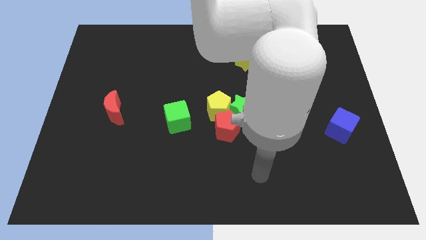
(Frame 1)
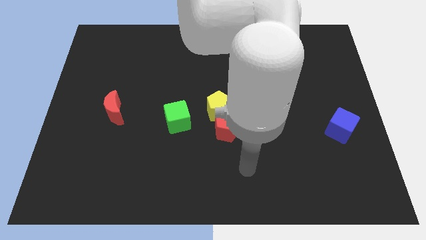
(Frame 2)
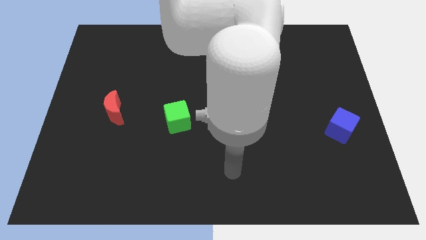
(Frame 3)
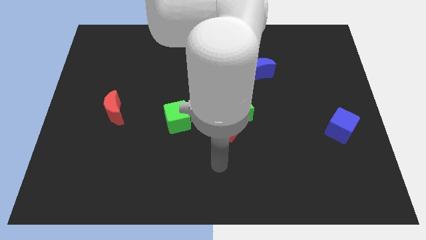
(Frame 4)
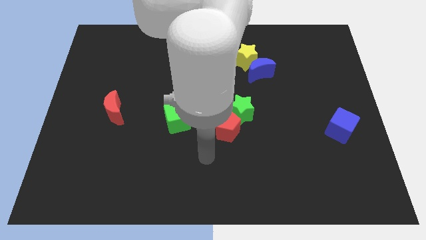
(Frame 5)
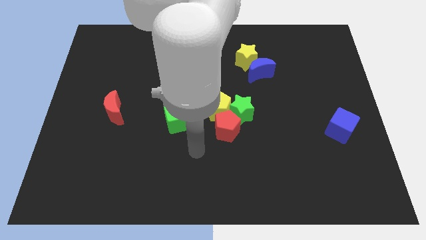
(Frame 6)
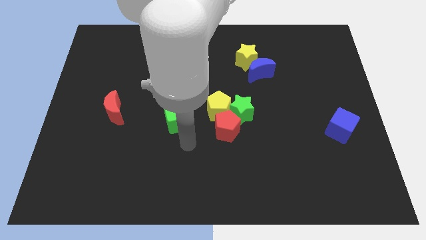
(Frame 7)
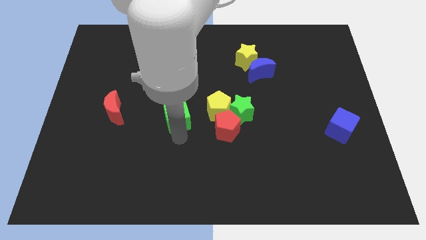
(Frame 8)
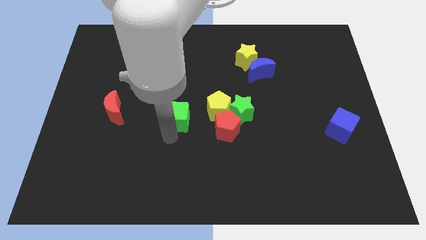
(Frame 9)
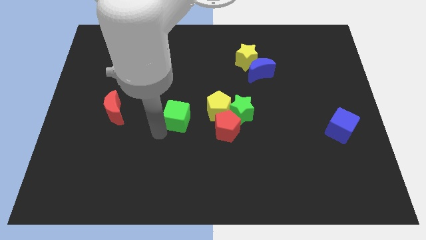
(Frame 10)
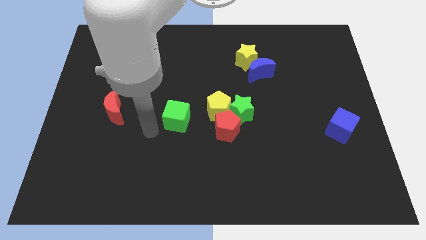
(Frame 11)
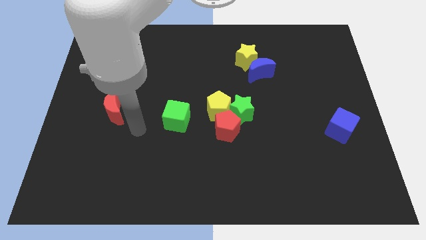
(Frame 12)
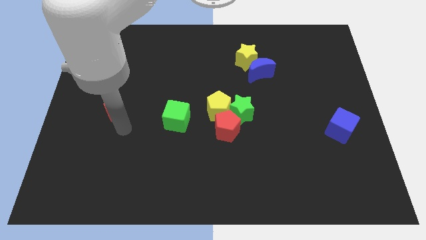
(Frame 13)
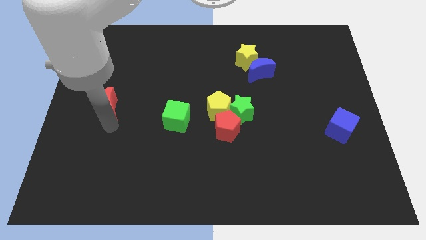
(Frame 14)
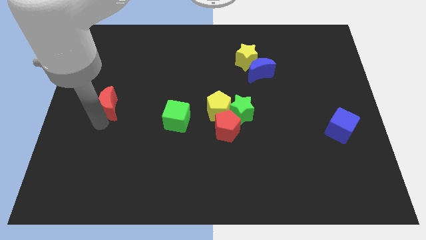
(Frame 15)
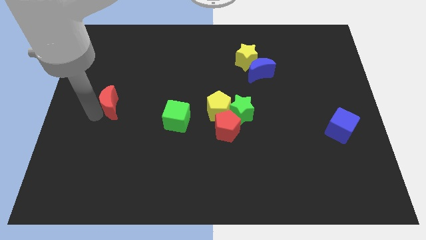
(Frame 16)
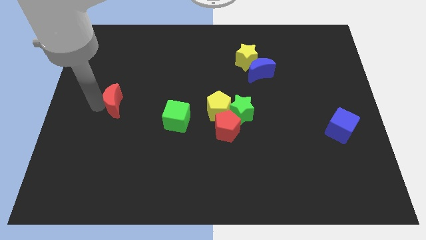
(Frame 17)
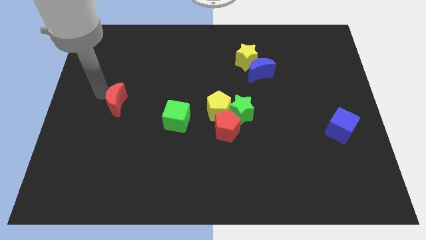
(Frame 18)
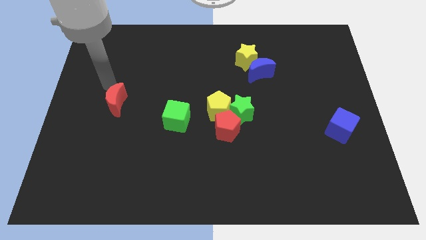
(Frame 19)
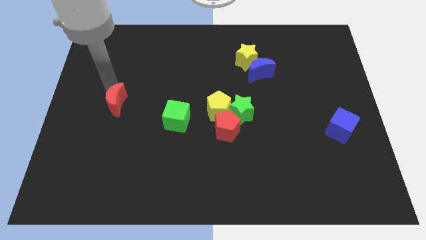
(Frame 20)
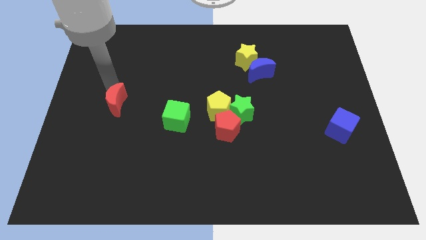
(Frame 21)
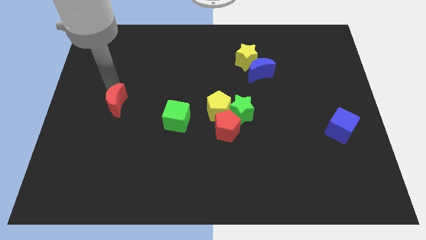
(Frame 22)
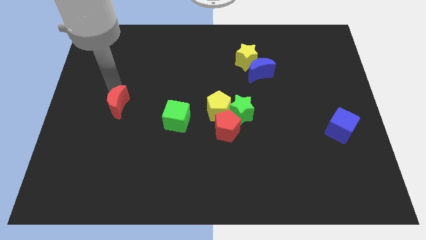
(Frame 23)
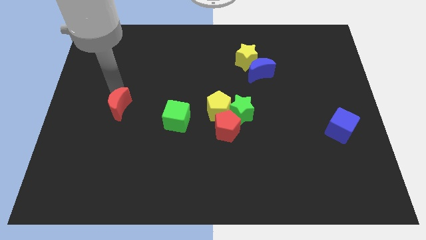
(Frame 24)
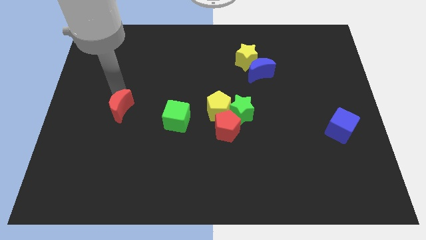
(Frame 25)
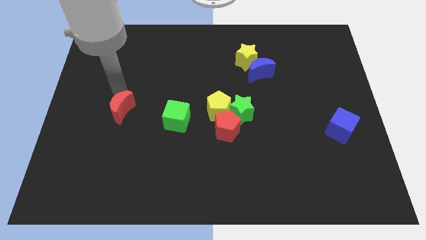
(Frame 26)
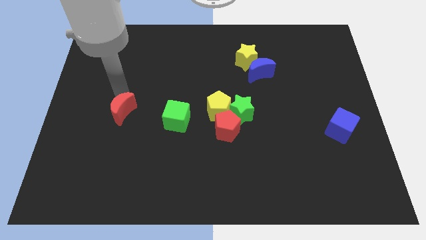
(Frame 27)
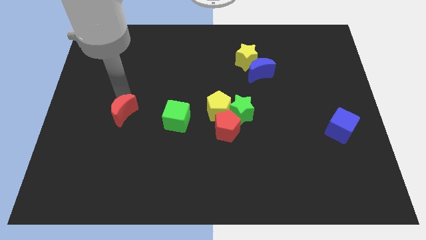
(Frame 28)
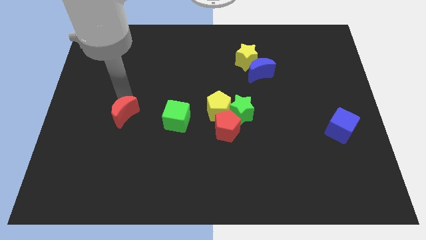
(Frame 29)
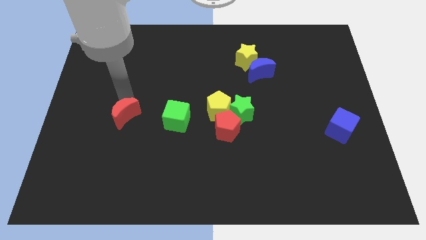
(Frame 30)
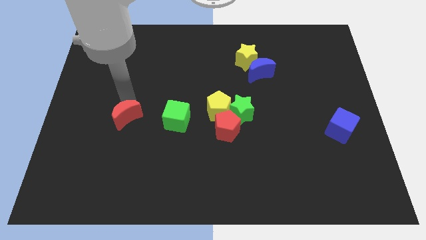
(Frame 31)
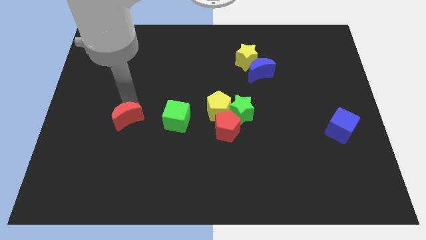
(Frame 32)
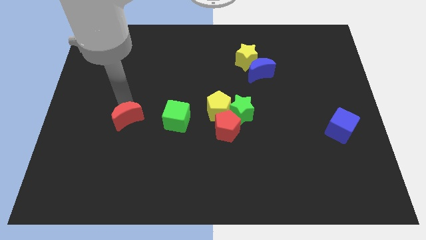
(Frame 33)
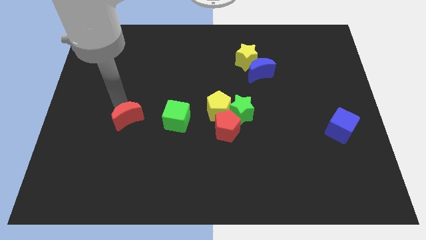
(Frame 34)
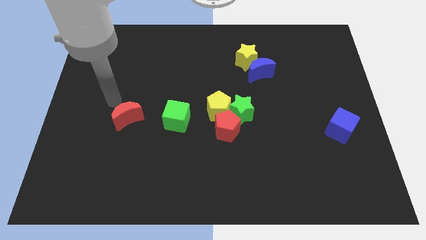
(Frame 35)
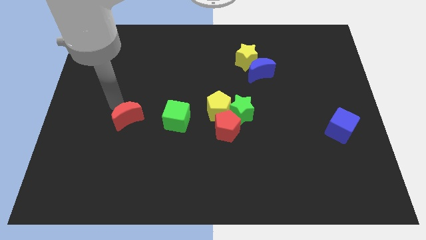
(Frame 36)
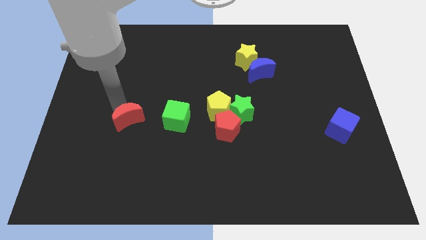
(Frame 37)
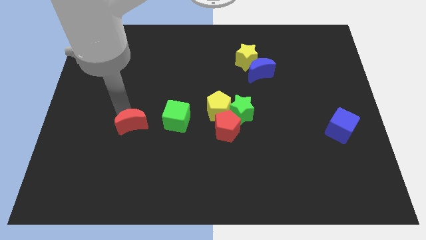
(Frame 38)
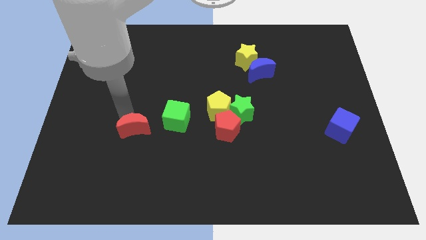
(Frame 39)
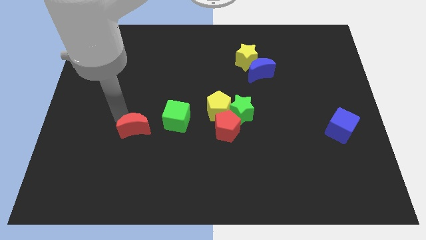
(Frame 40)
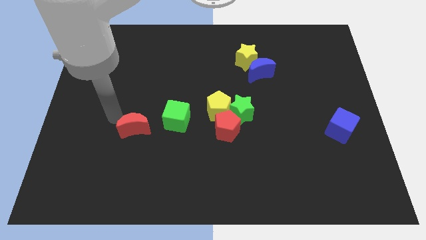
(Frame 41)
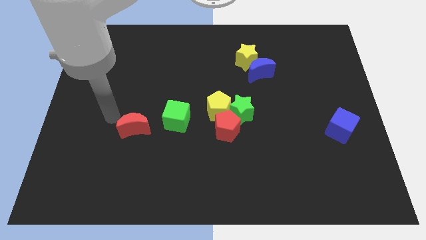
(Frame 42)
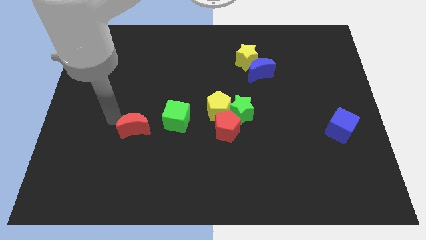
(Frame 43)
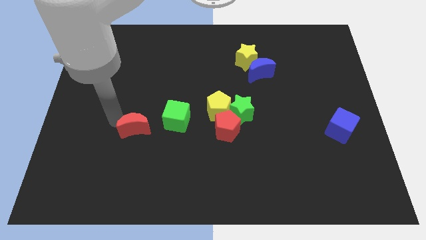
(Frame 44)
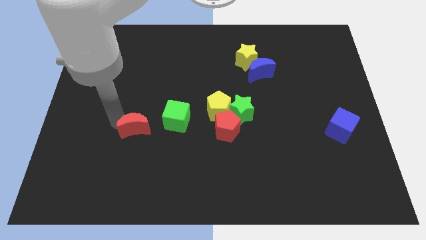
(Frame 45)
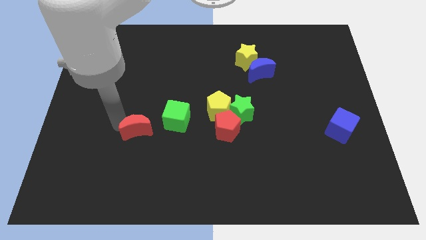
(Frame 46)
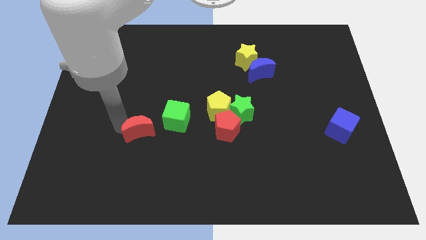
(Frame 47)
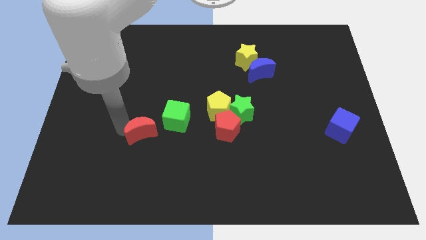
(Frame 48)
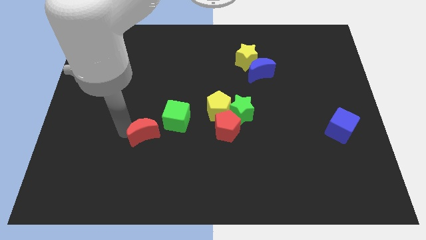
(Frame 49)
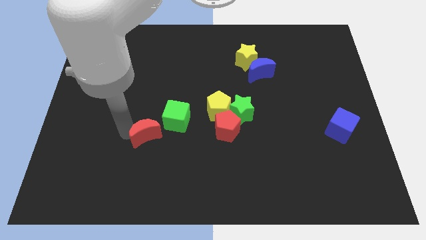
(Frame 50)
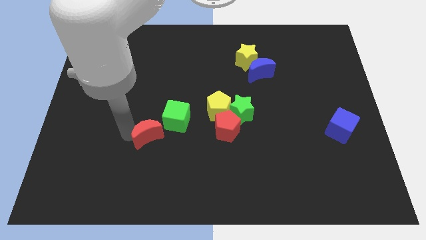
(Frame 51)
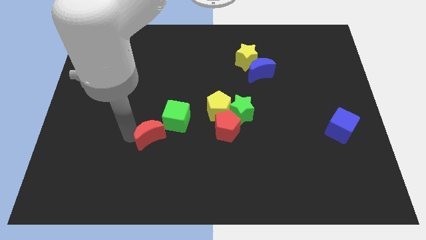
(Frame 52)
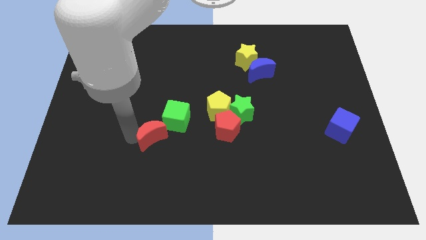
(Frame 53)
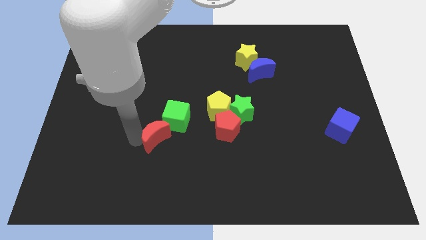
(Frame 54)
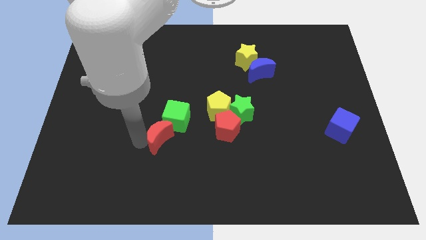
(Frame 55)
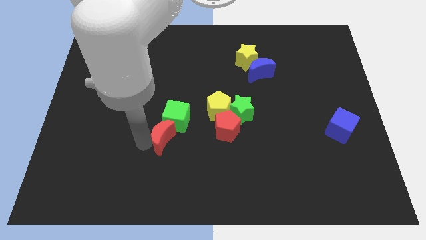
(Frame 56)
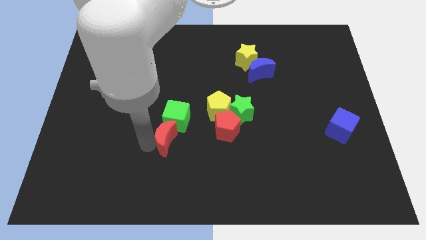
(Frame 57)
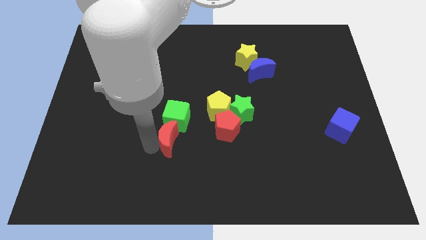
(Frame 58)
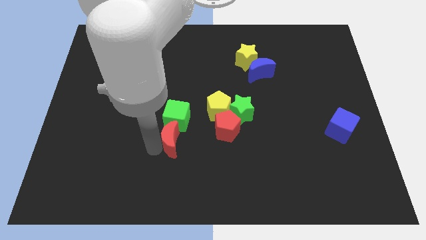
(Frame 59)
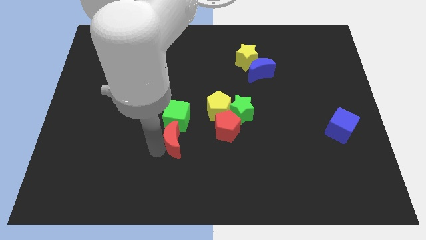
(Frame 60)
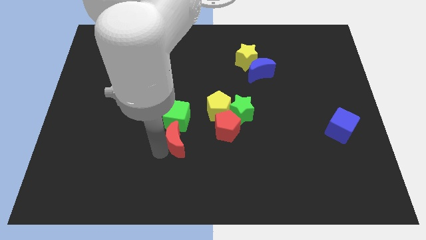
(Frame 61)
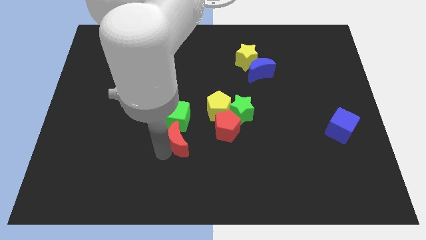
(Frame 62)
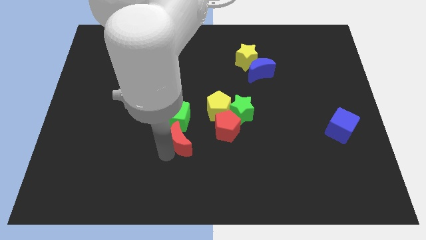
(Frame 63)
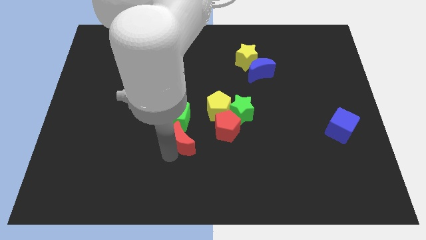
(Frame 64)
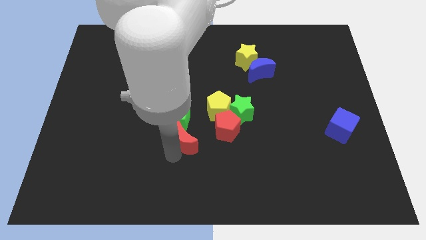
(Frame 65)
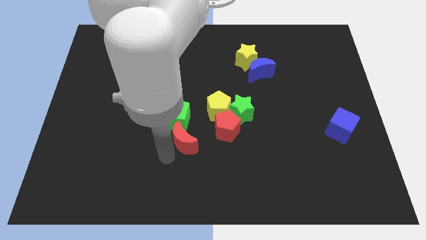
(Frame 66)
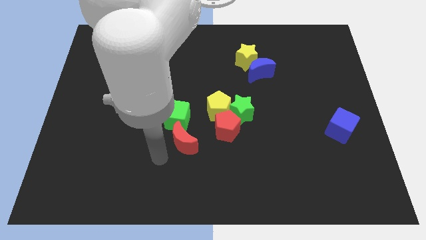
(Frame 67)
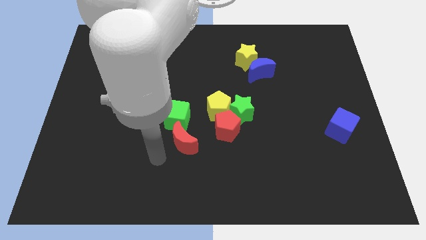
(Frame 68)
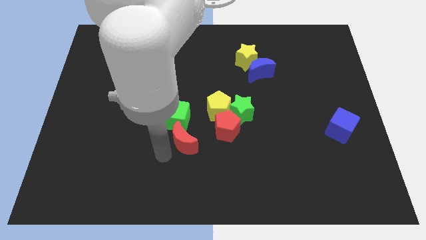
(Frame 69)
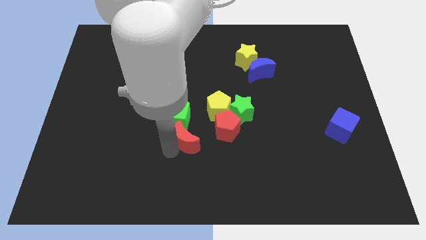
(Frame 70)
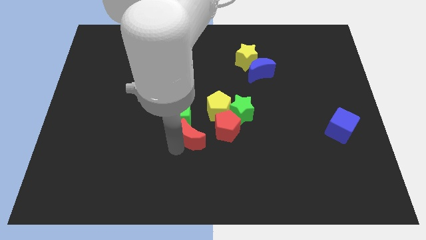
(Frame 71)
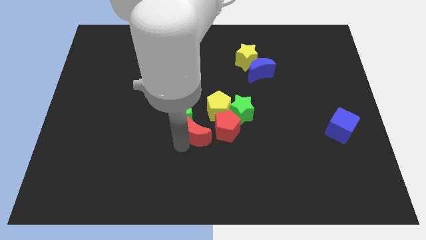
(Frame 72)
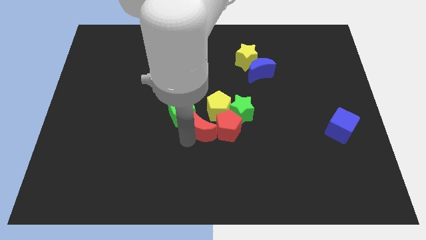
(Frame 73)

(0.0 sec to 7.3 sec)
push the red moon towards the red pentagon

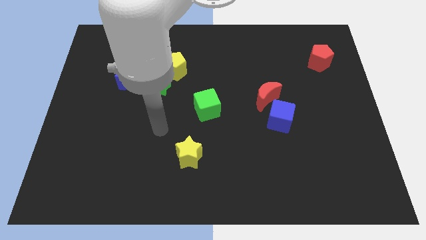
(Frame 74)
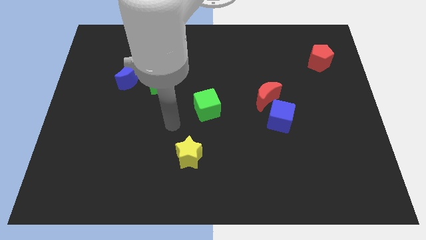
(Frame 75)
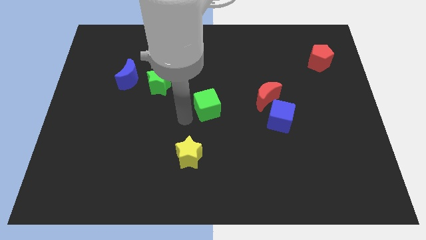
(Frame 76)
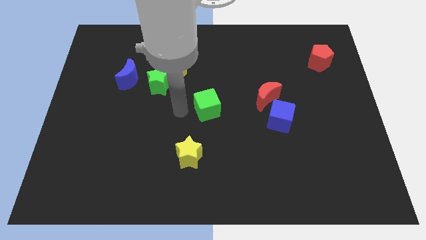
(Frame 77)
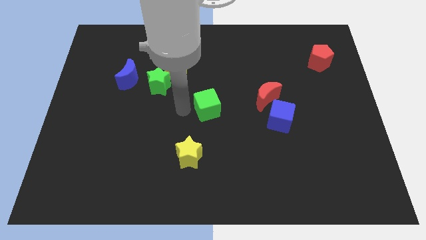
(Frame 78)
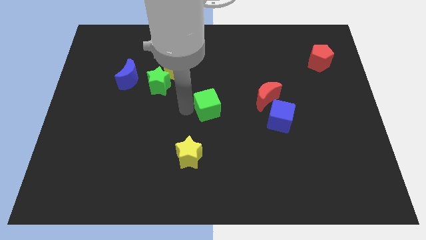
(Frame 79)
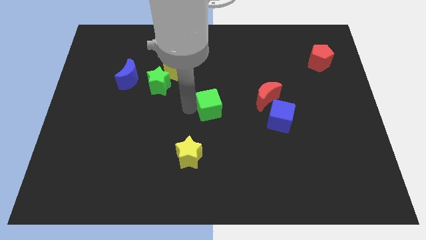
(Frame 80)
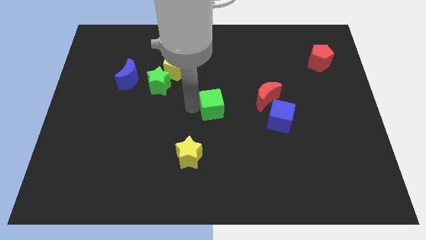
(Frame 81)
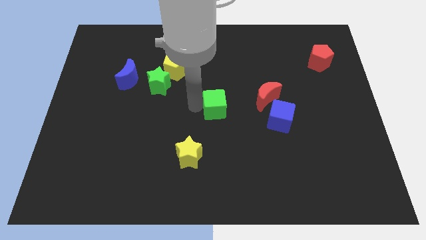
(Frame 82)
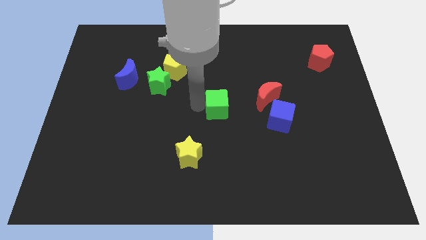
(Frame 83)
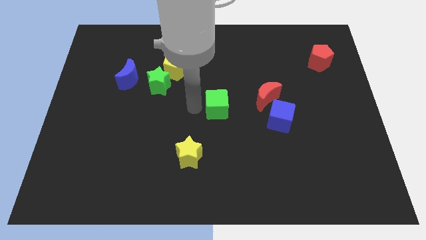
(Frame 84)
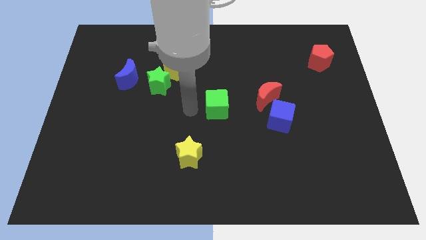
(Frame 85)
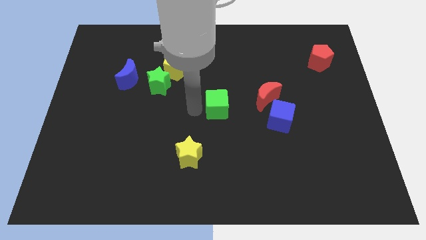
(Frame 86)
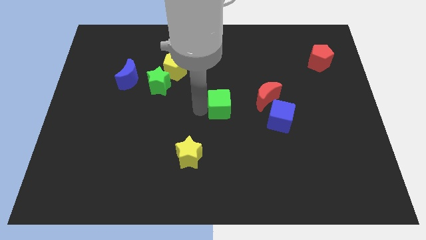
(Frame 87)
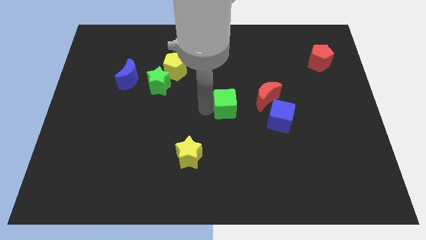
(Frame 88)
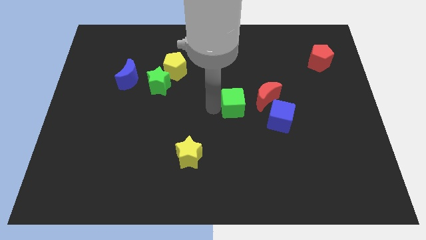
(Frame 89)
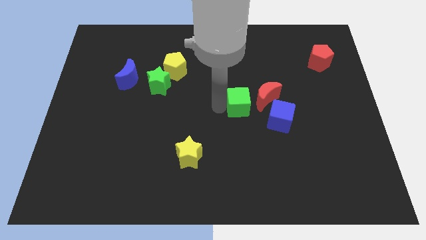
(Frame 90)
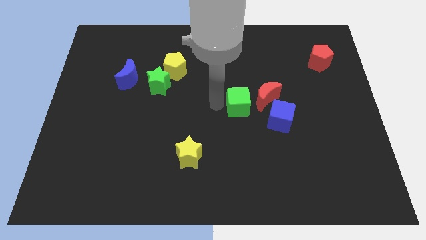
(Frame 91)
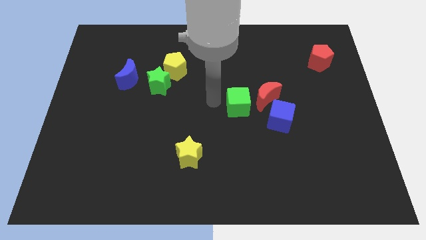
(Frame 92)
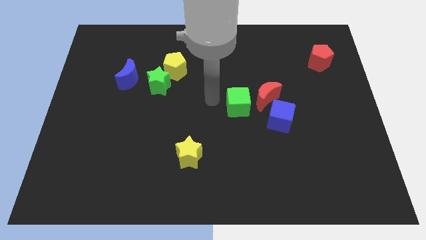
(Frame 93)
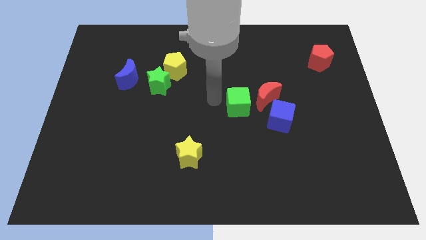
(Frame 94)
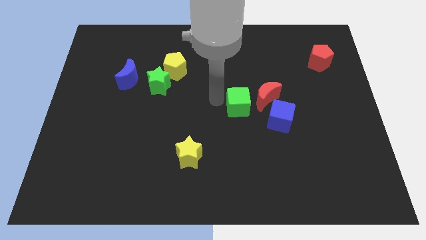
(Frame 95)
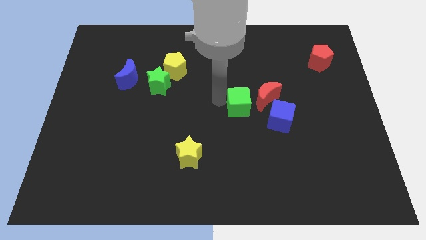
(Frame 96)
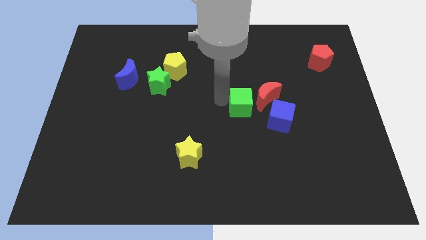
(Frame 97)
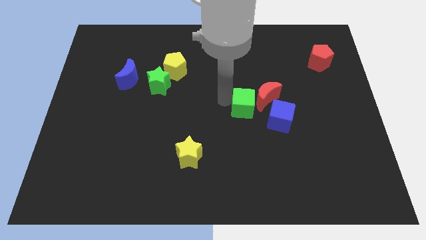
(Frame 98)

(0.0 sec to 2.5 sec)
push the green cube towards the red moon
